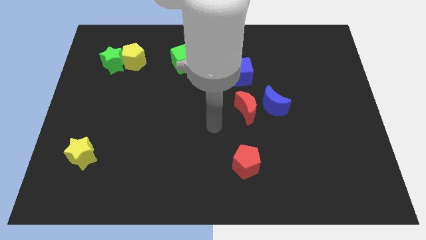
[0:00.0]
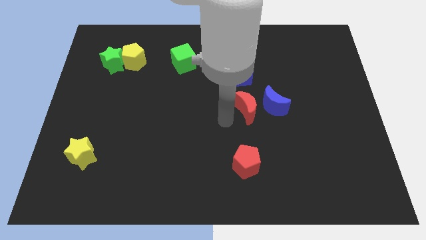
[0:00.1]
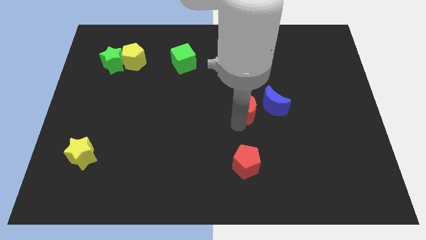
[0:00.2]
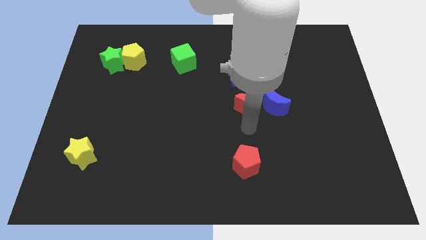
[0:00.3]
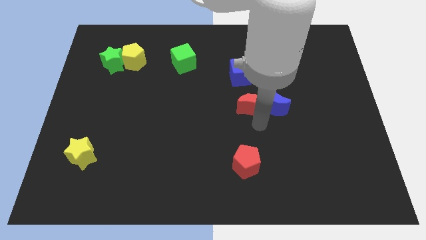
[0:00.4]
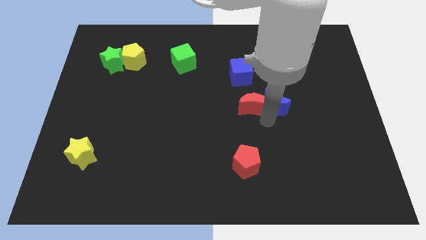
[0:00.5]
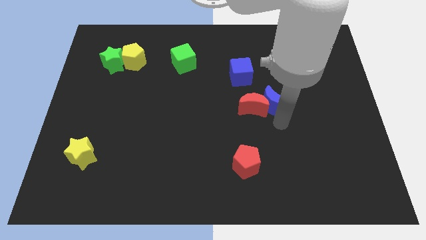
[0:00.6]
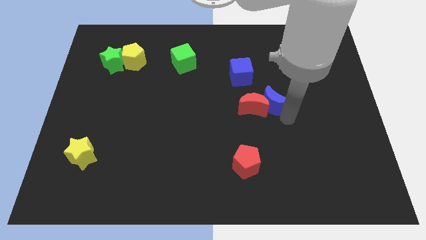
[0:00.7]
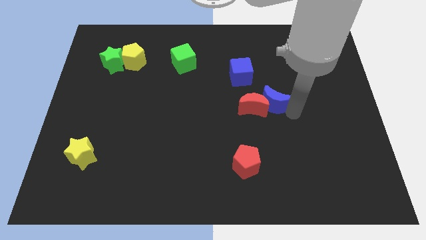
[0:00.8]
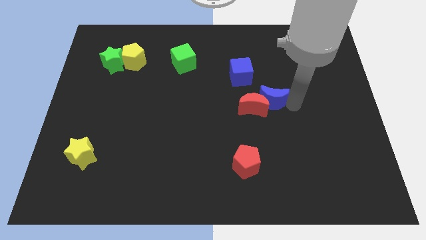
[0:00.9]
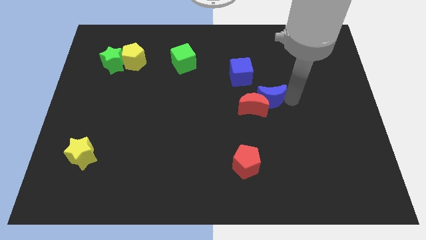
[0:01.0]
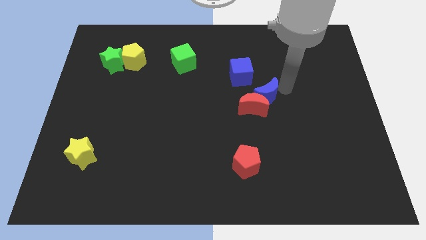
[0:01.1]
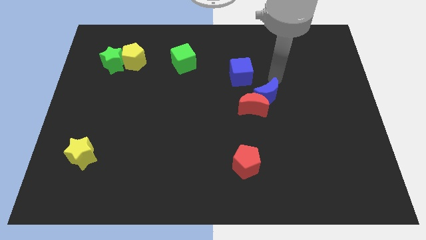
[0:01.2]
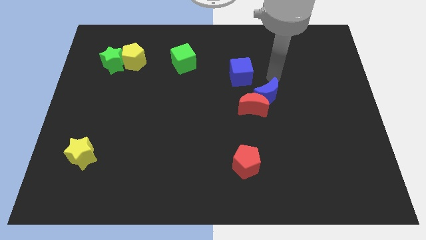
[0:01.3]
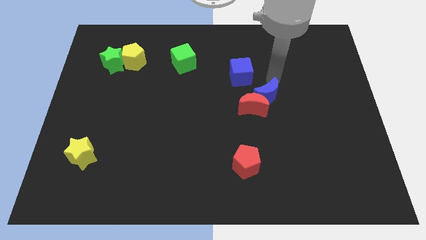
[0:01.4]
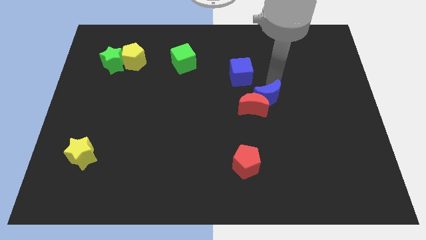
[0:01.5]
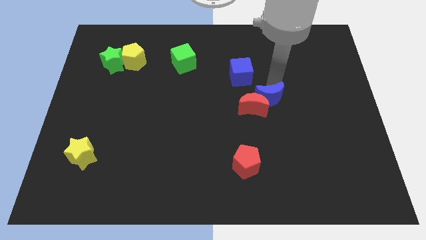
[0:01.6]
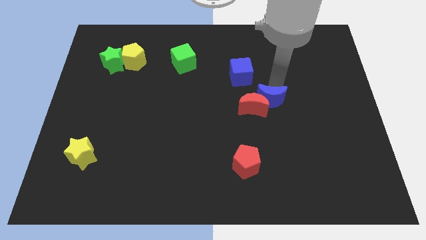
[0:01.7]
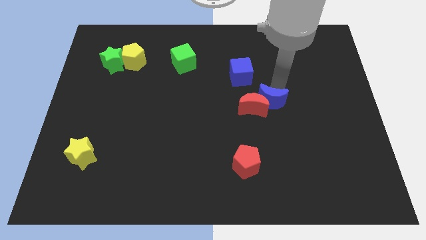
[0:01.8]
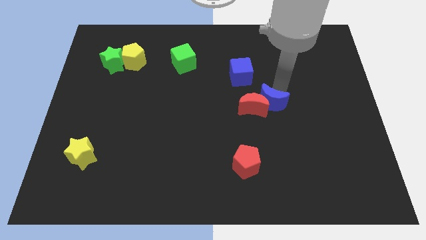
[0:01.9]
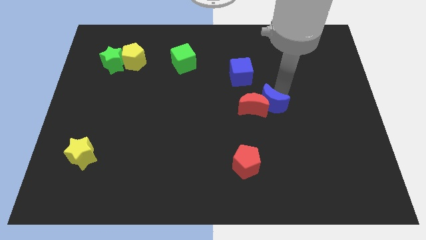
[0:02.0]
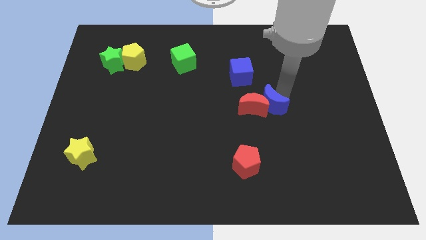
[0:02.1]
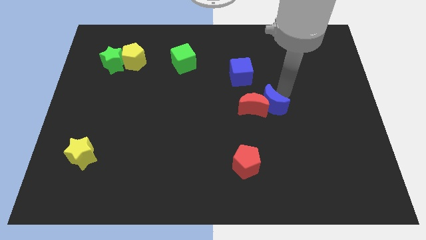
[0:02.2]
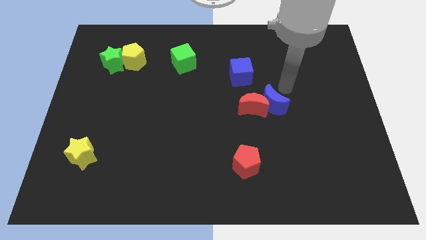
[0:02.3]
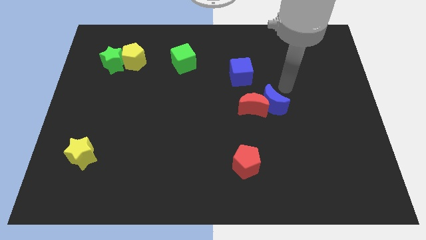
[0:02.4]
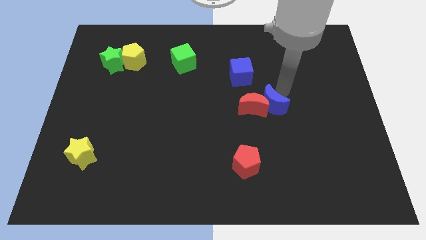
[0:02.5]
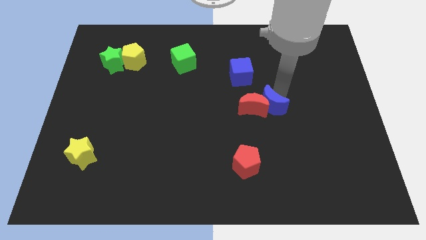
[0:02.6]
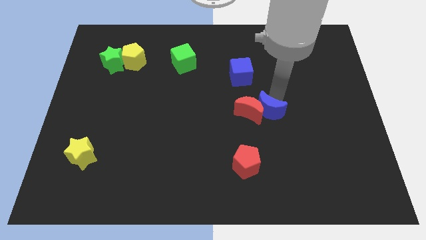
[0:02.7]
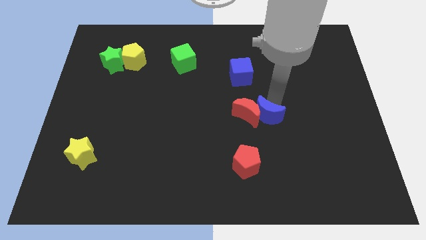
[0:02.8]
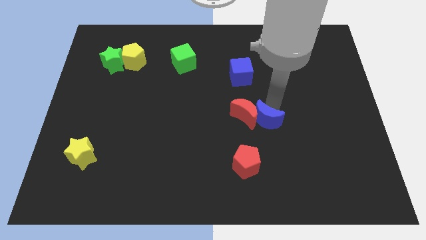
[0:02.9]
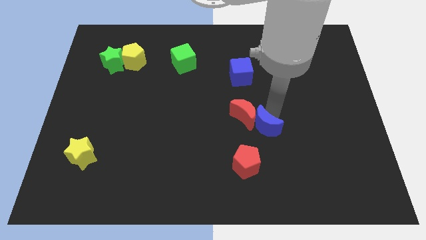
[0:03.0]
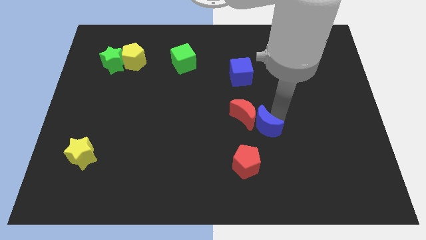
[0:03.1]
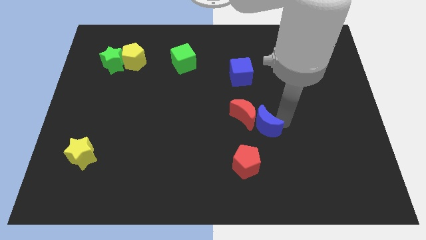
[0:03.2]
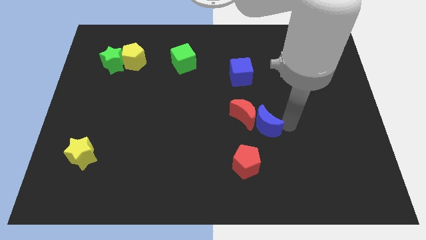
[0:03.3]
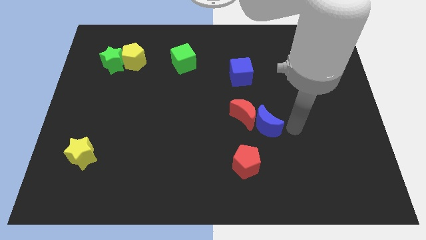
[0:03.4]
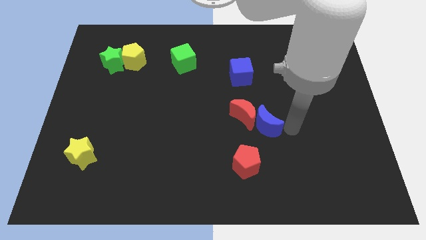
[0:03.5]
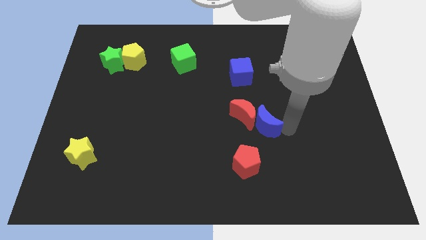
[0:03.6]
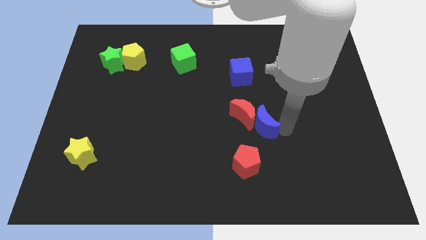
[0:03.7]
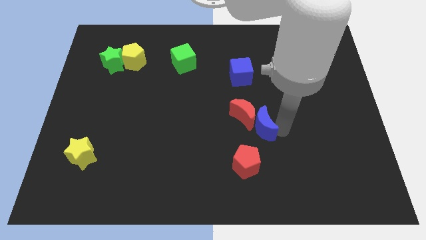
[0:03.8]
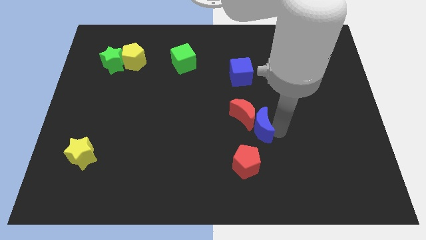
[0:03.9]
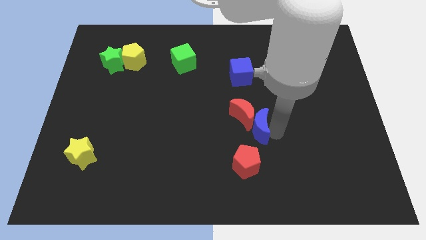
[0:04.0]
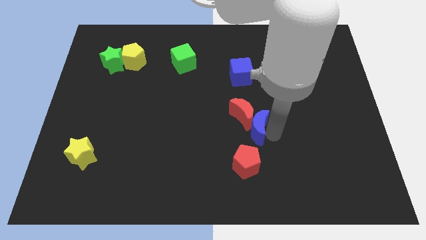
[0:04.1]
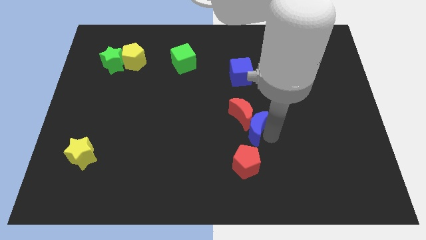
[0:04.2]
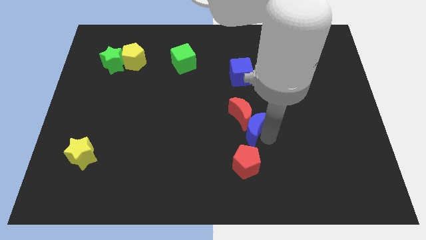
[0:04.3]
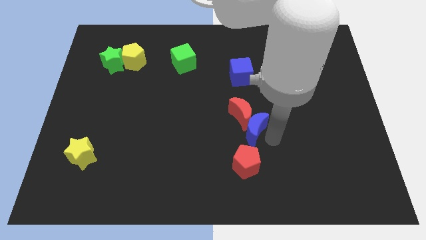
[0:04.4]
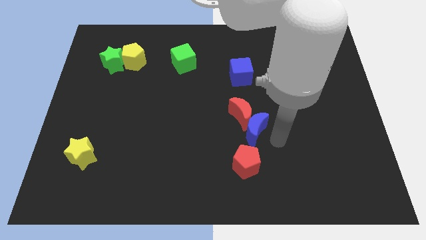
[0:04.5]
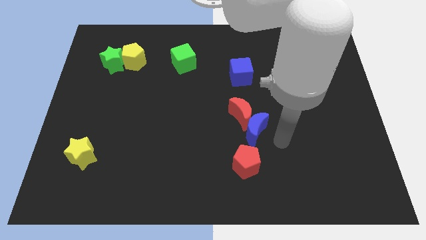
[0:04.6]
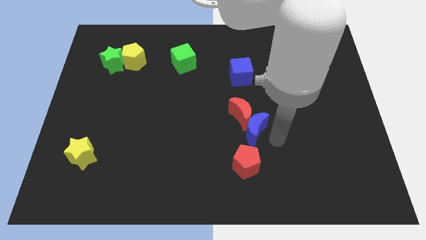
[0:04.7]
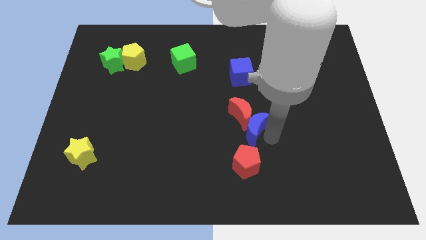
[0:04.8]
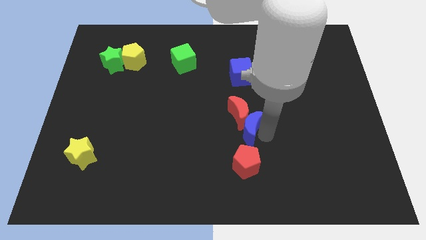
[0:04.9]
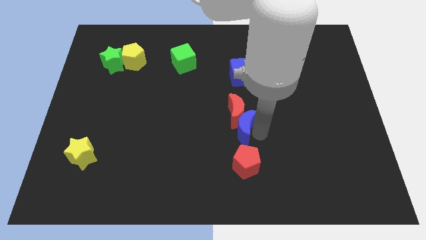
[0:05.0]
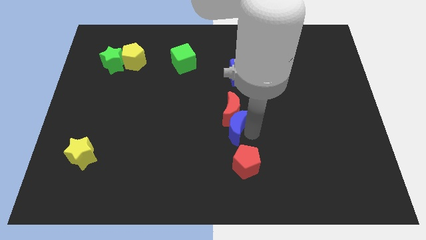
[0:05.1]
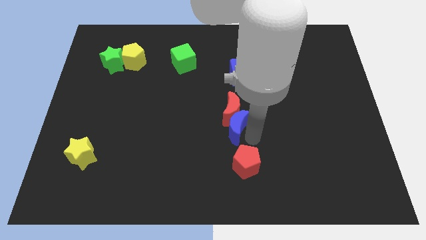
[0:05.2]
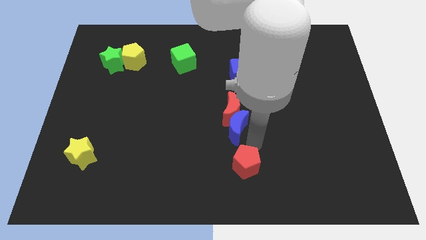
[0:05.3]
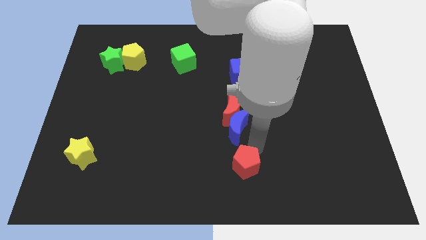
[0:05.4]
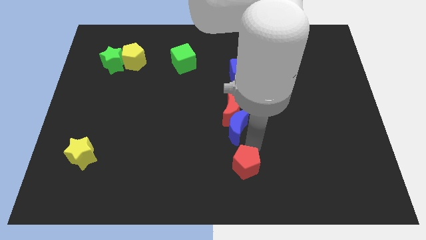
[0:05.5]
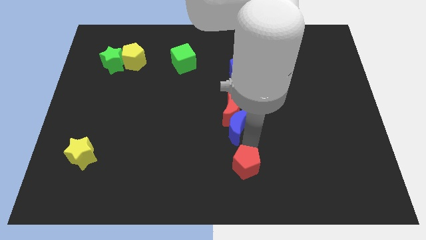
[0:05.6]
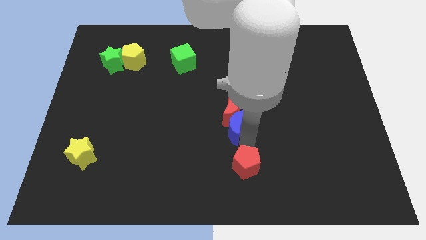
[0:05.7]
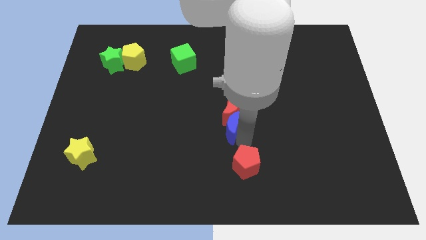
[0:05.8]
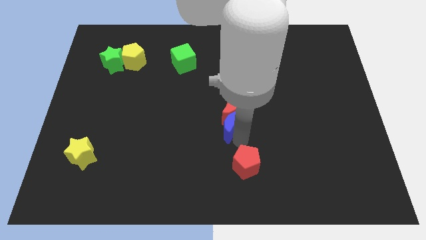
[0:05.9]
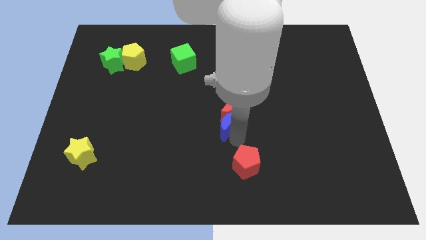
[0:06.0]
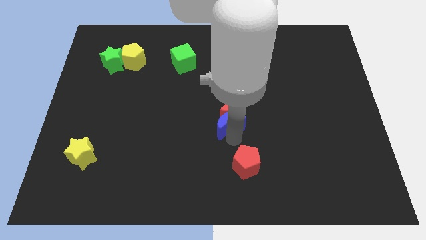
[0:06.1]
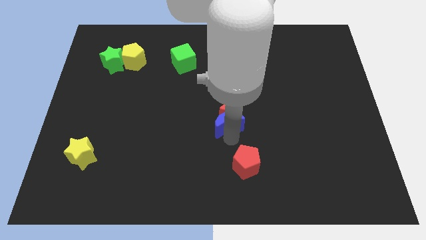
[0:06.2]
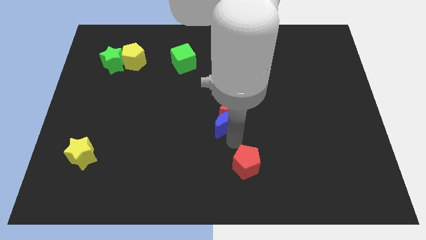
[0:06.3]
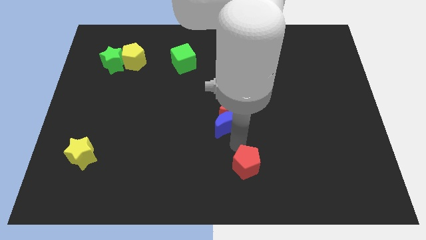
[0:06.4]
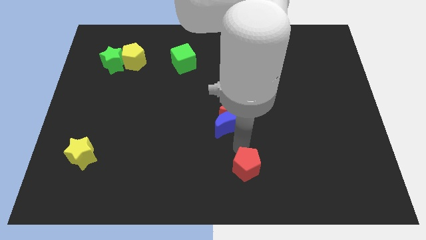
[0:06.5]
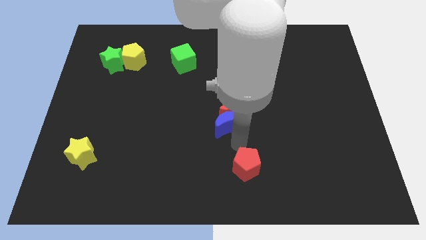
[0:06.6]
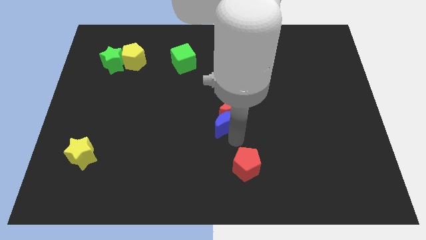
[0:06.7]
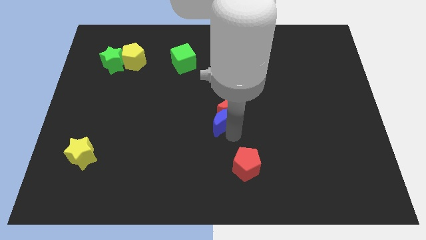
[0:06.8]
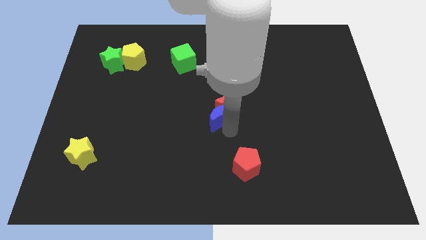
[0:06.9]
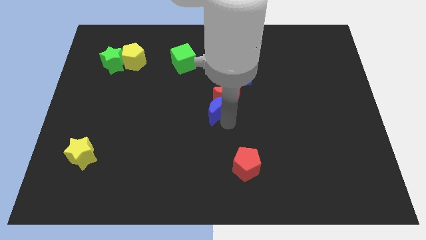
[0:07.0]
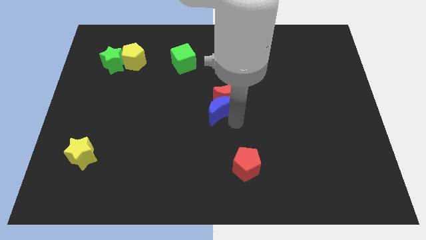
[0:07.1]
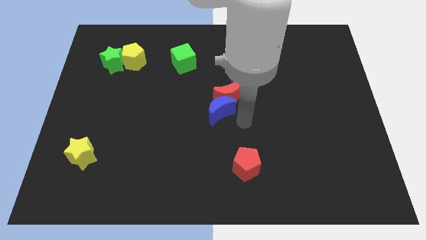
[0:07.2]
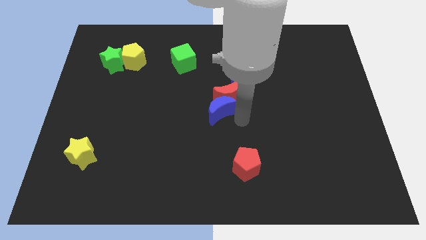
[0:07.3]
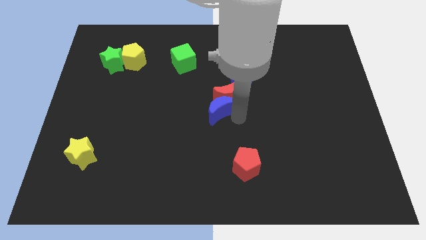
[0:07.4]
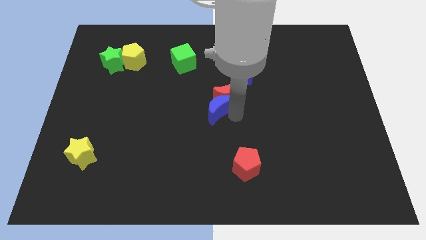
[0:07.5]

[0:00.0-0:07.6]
slide the blue moon left of the red moon

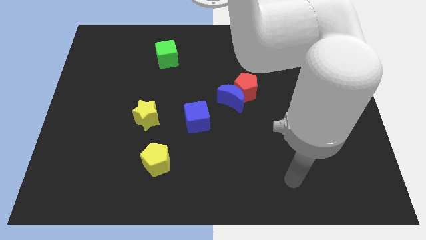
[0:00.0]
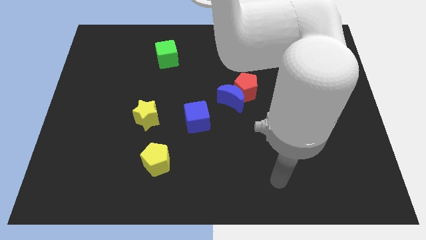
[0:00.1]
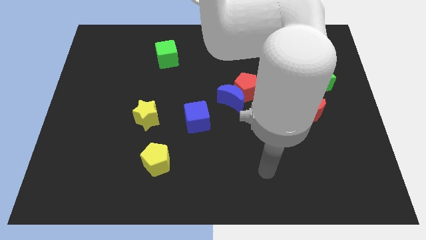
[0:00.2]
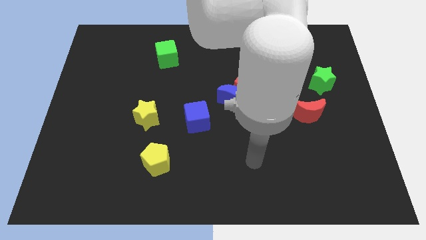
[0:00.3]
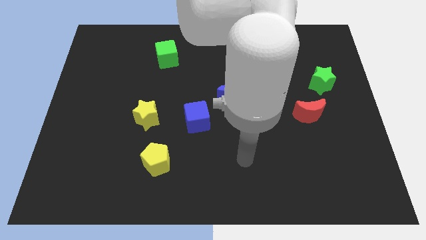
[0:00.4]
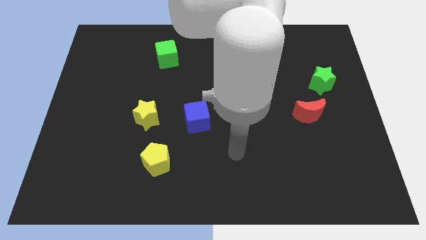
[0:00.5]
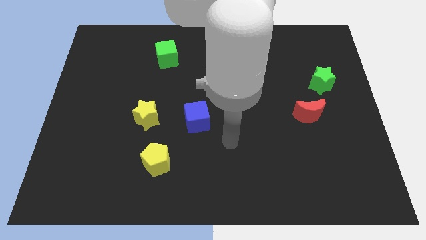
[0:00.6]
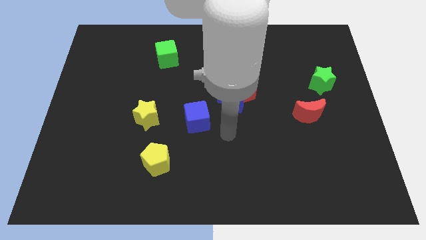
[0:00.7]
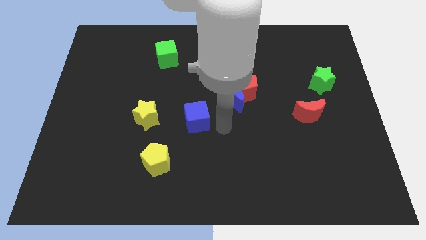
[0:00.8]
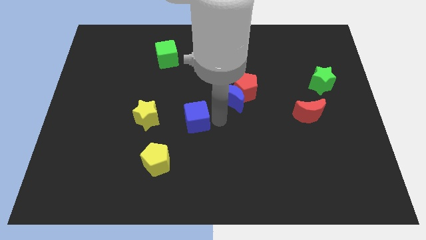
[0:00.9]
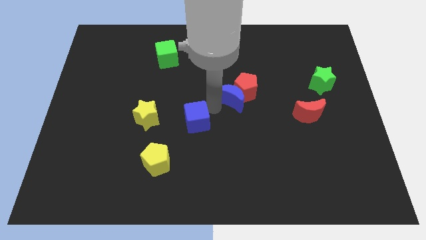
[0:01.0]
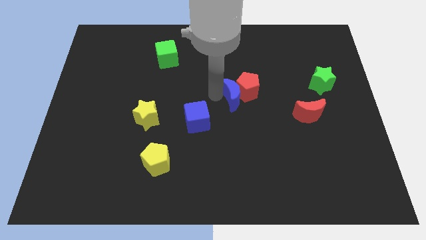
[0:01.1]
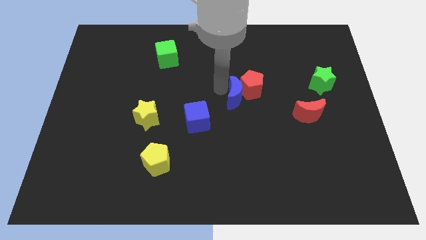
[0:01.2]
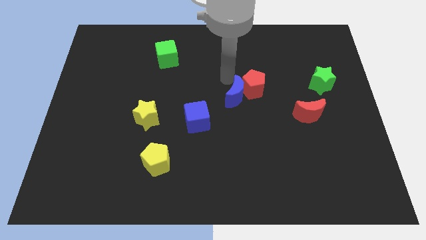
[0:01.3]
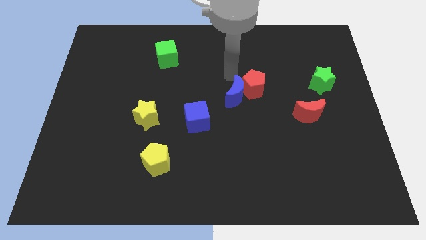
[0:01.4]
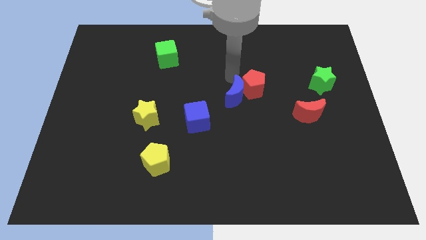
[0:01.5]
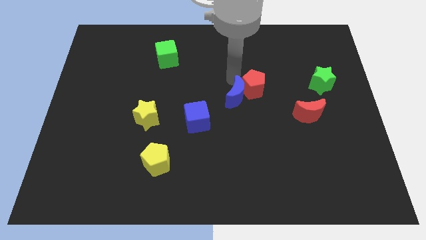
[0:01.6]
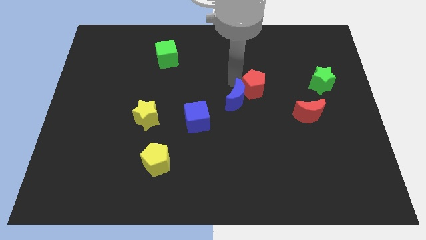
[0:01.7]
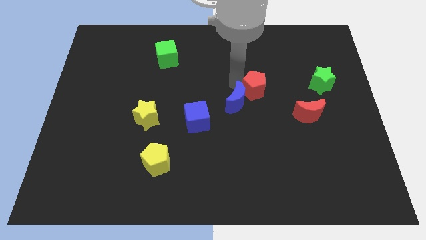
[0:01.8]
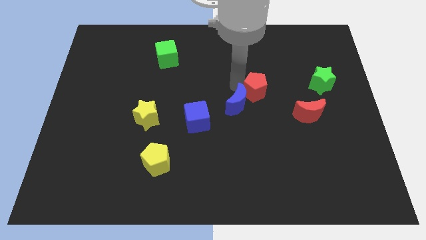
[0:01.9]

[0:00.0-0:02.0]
move the blue moon to the right side of the blue cube
